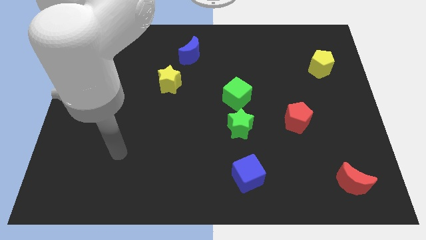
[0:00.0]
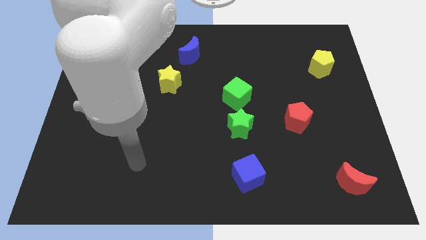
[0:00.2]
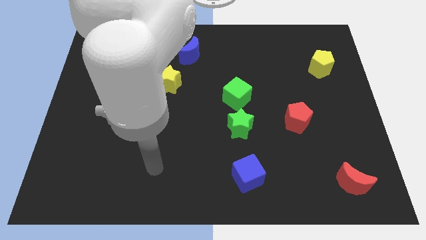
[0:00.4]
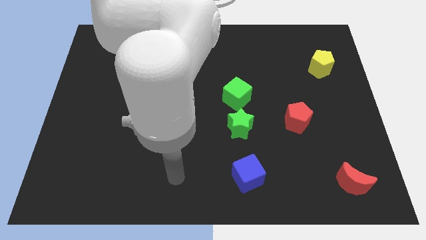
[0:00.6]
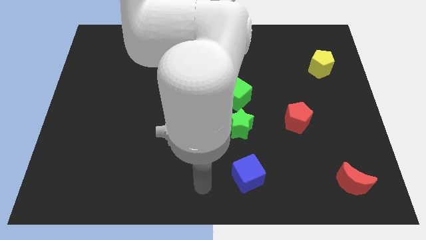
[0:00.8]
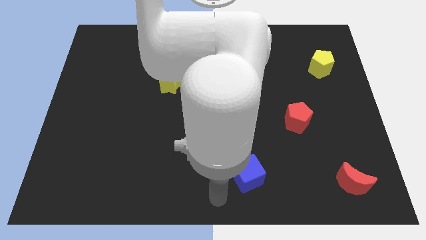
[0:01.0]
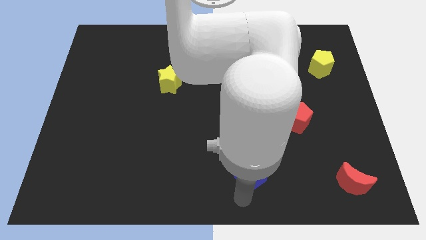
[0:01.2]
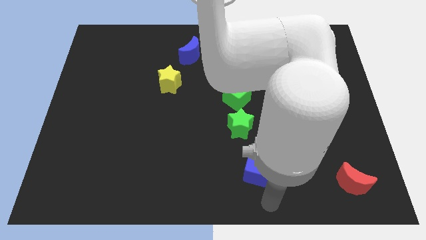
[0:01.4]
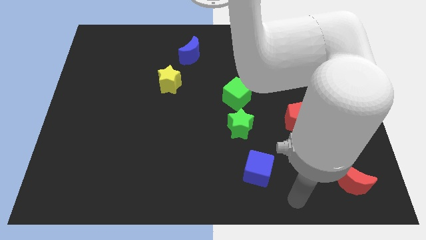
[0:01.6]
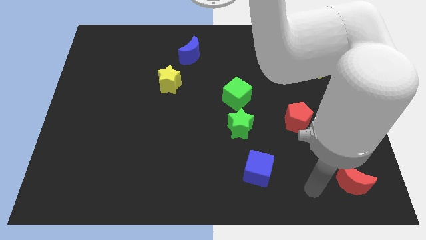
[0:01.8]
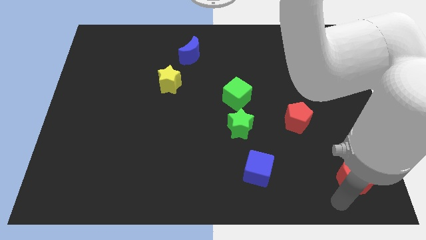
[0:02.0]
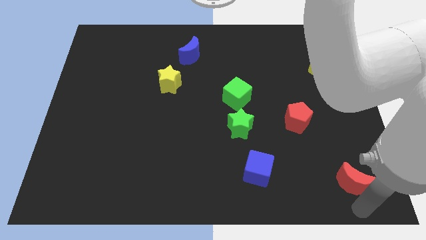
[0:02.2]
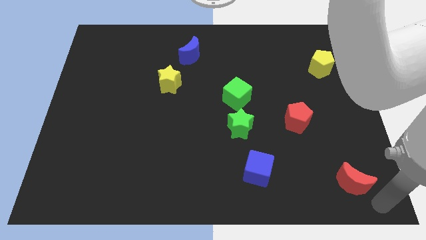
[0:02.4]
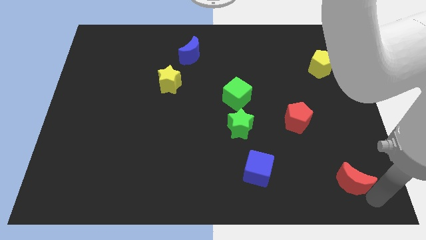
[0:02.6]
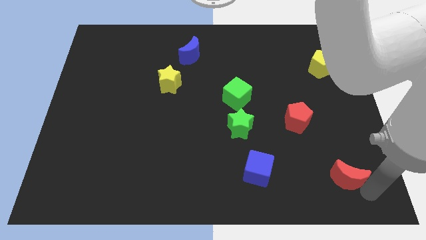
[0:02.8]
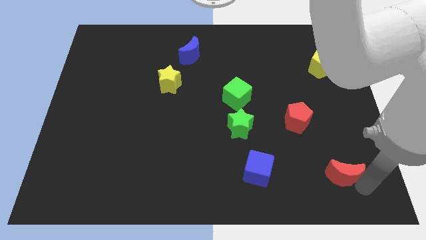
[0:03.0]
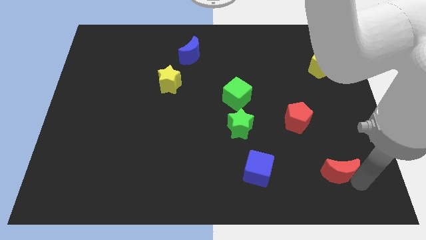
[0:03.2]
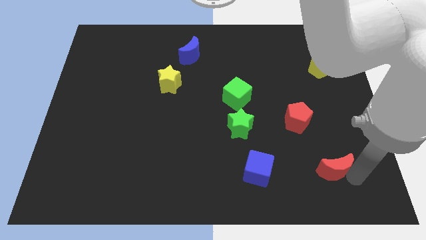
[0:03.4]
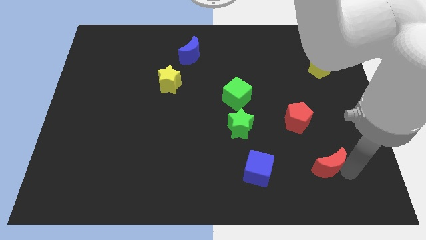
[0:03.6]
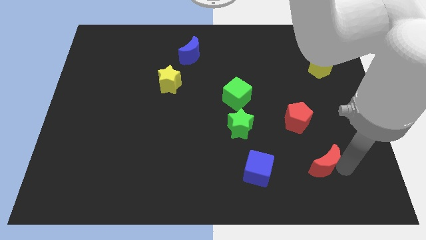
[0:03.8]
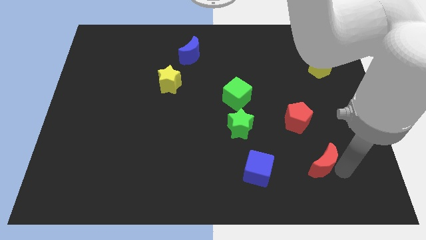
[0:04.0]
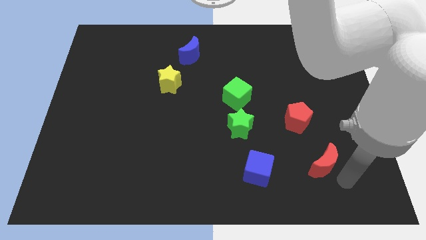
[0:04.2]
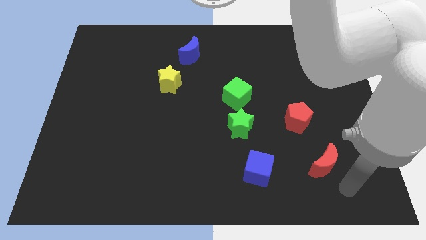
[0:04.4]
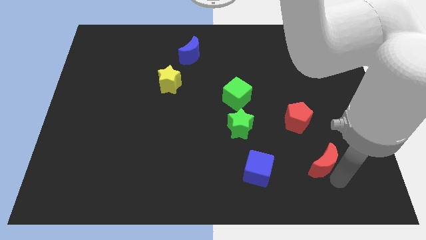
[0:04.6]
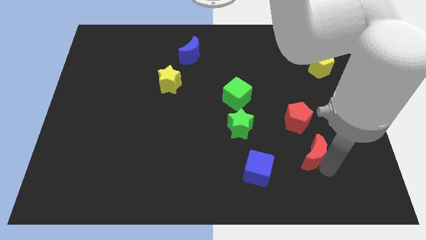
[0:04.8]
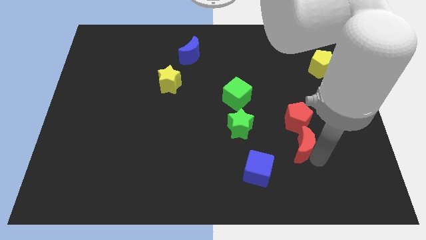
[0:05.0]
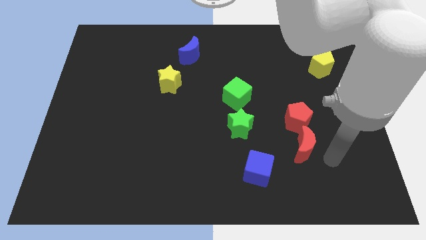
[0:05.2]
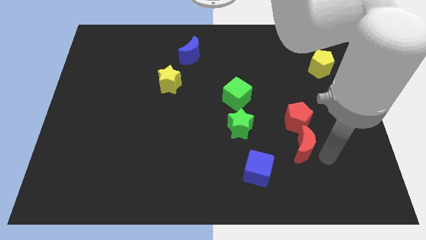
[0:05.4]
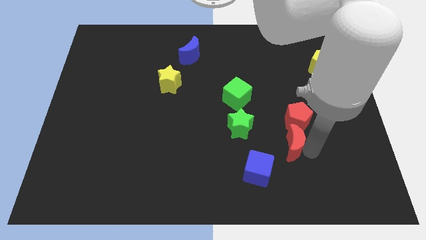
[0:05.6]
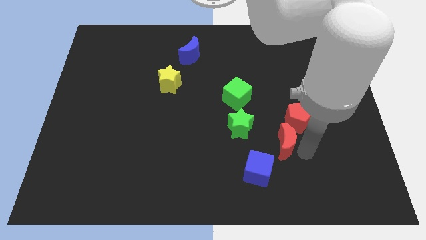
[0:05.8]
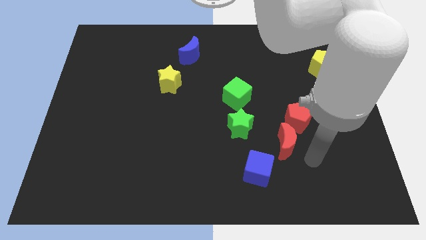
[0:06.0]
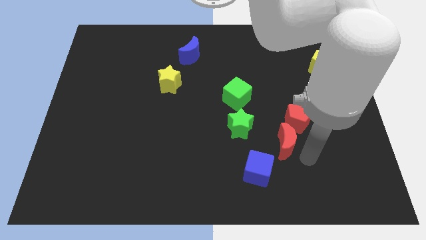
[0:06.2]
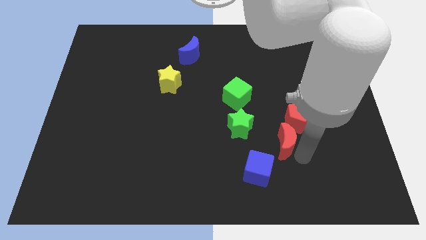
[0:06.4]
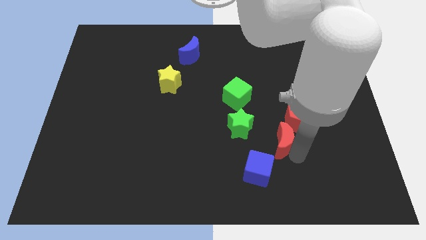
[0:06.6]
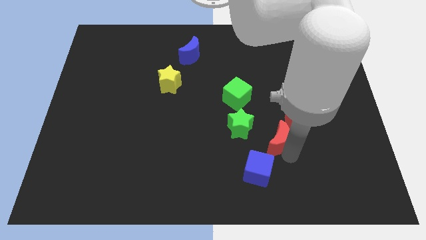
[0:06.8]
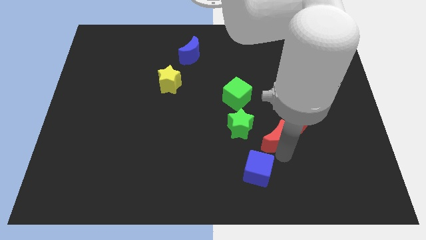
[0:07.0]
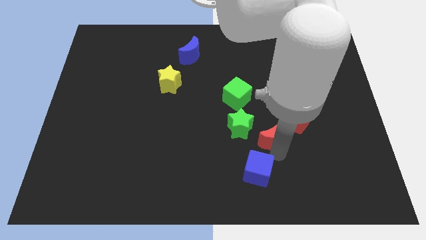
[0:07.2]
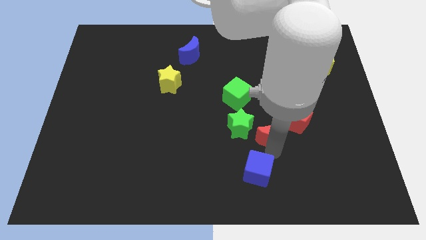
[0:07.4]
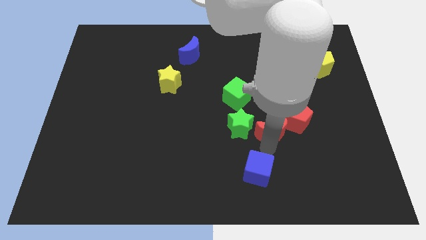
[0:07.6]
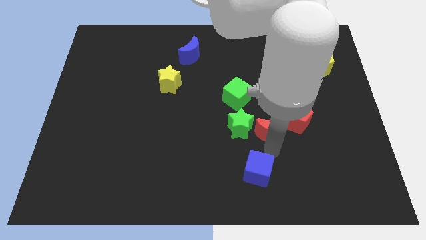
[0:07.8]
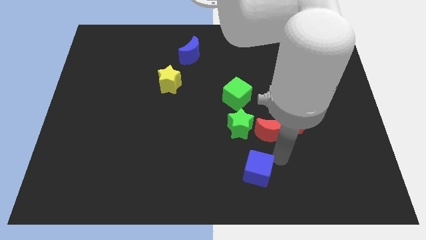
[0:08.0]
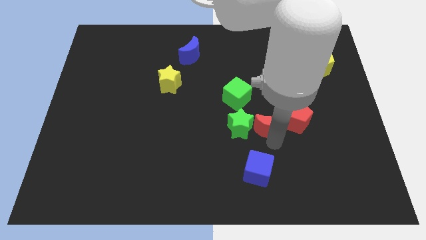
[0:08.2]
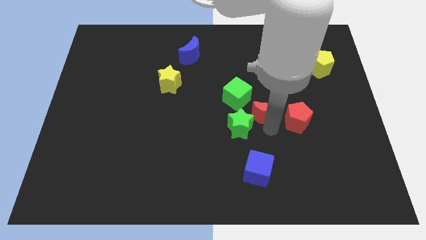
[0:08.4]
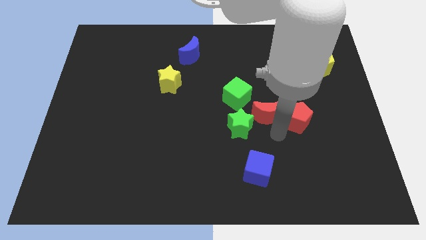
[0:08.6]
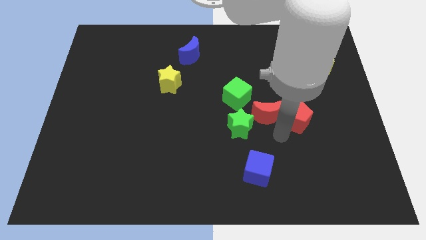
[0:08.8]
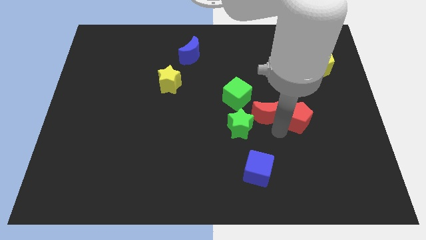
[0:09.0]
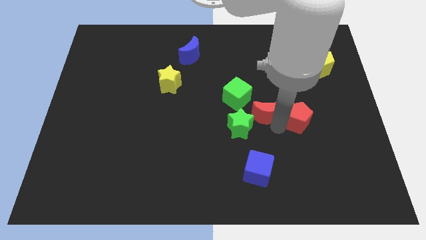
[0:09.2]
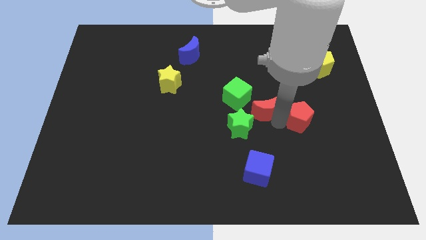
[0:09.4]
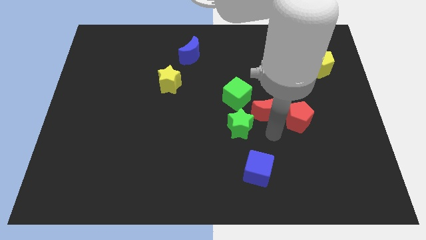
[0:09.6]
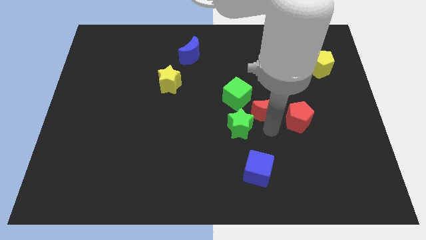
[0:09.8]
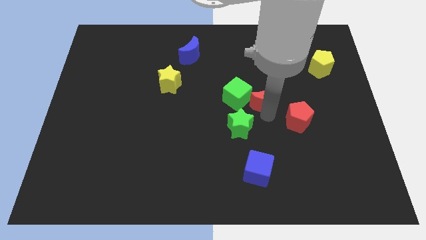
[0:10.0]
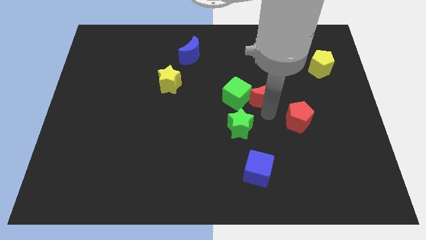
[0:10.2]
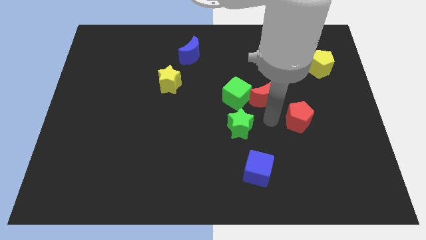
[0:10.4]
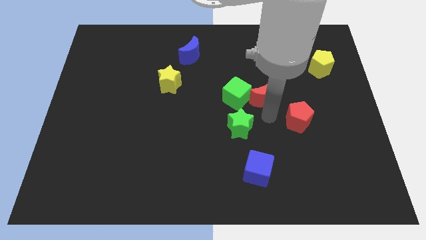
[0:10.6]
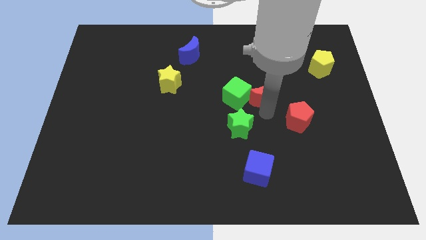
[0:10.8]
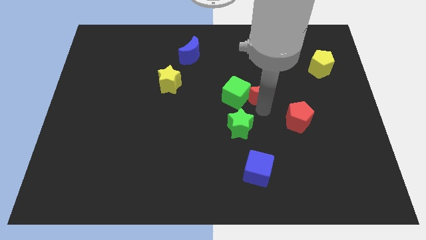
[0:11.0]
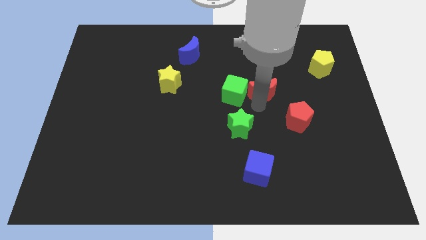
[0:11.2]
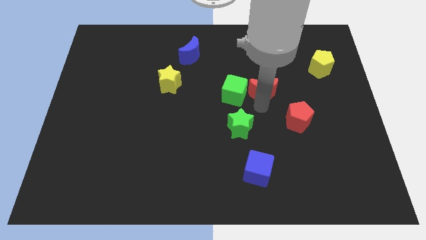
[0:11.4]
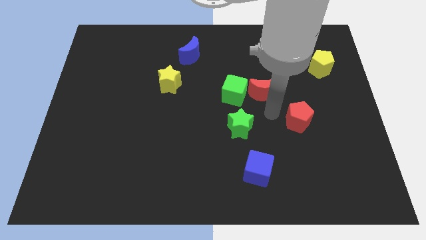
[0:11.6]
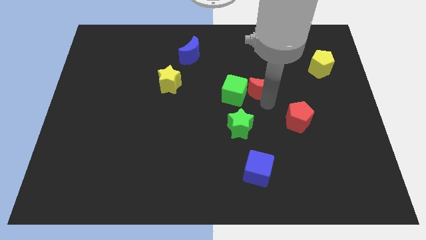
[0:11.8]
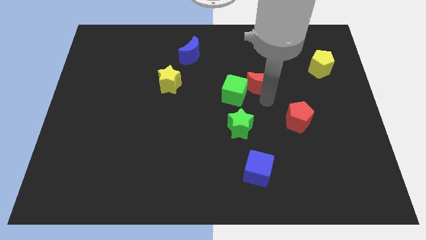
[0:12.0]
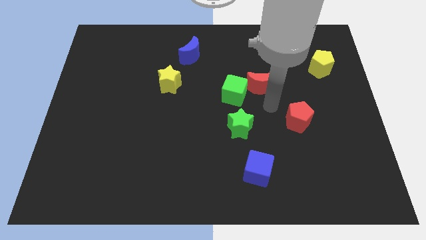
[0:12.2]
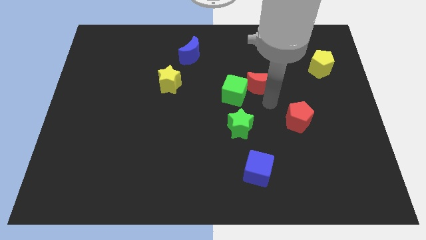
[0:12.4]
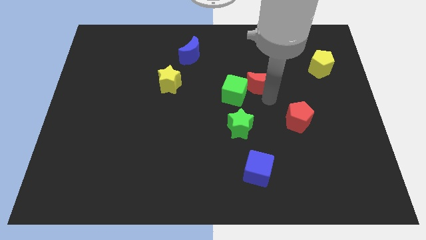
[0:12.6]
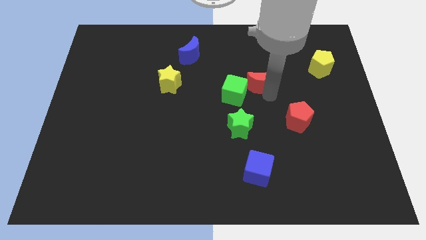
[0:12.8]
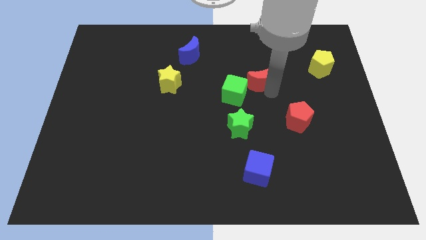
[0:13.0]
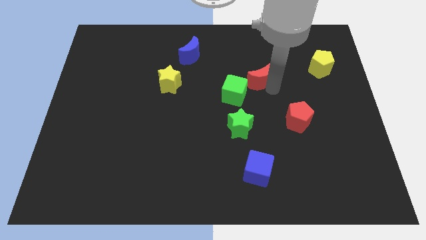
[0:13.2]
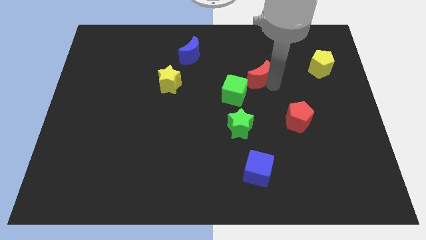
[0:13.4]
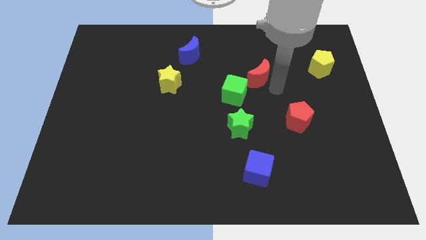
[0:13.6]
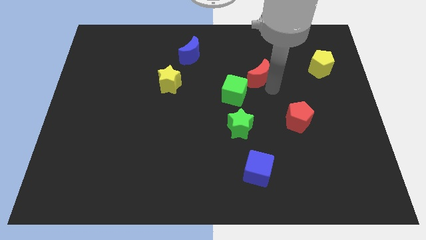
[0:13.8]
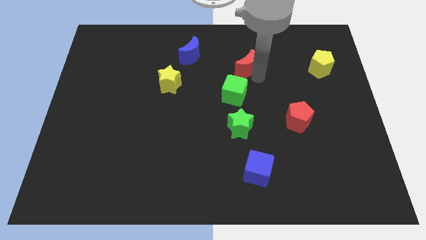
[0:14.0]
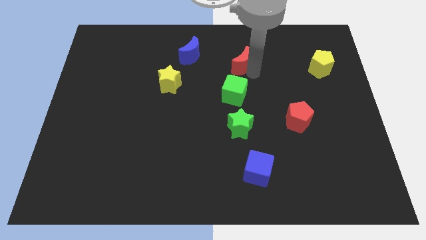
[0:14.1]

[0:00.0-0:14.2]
push the red moon to the right of the blue moon
